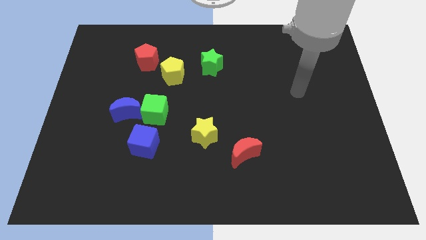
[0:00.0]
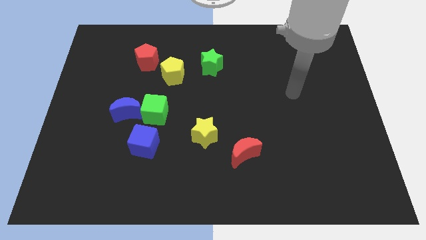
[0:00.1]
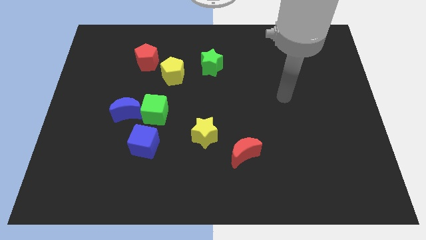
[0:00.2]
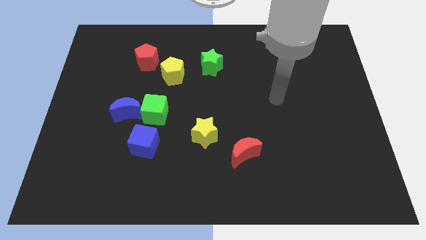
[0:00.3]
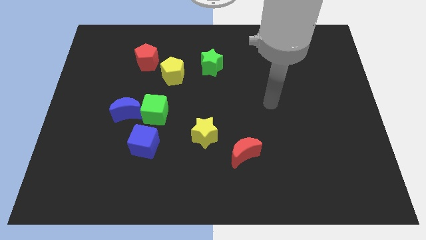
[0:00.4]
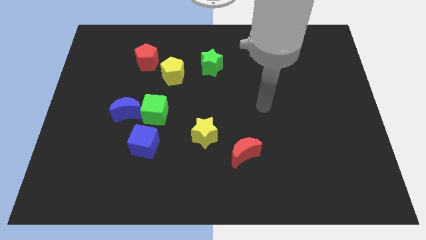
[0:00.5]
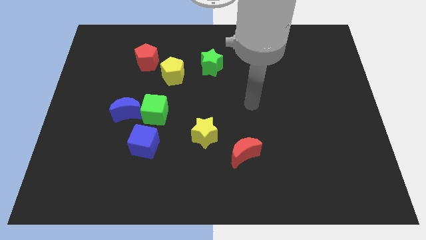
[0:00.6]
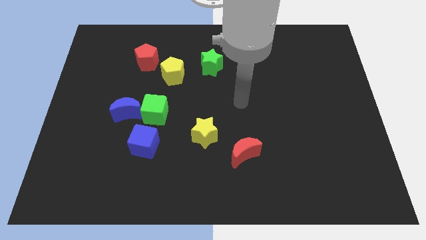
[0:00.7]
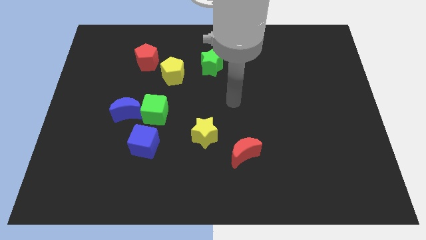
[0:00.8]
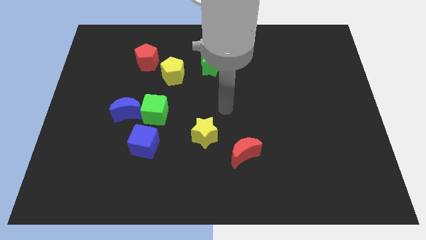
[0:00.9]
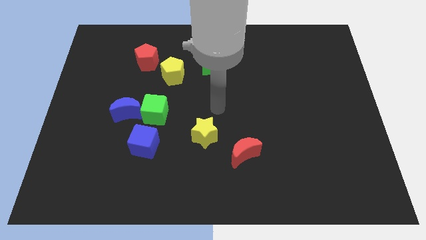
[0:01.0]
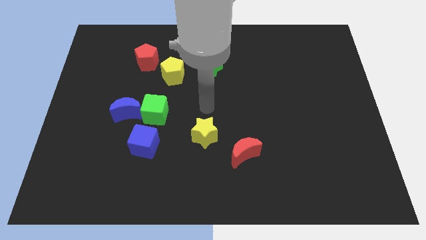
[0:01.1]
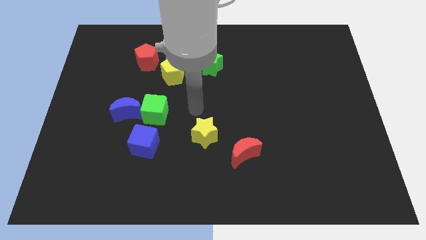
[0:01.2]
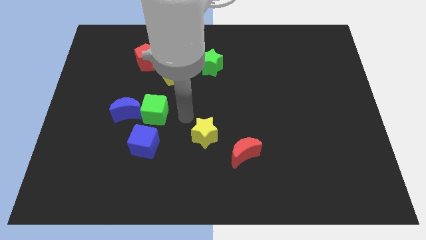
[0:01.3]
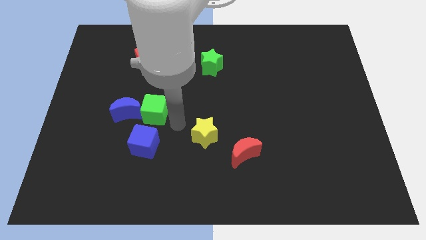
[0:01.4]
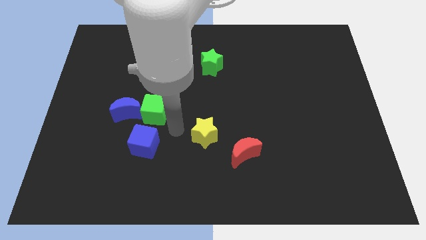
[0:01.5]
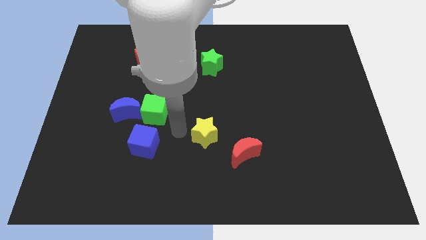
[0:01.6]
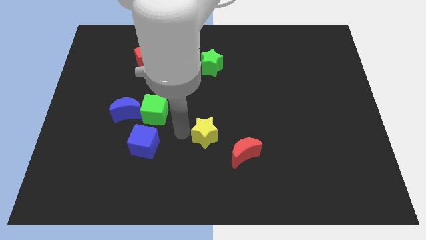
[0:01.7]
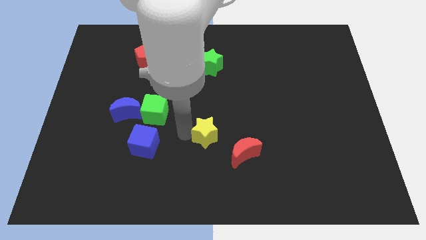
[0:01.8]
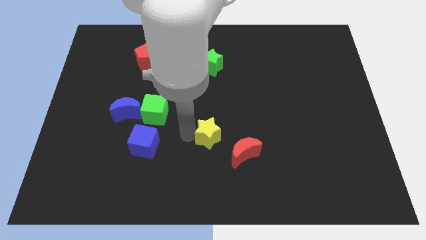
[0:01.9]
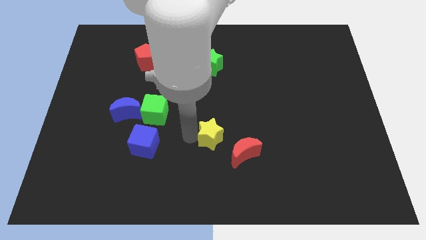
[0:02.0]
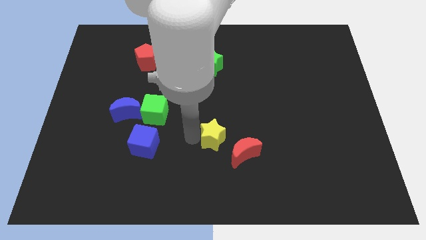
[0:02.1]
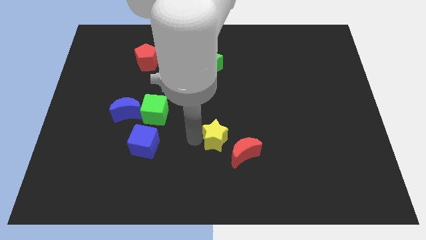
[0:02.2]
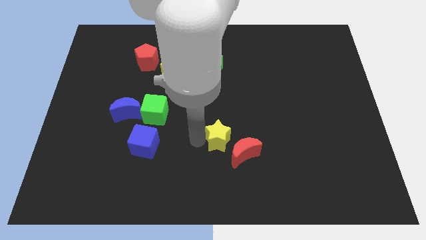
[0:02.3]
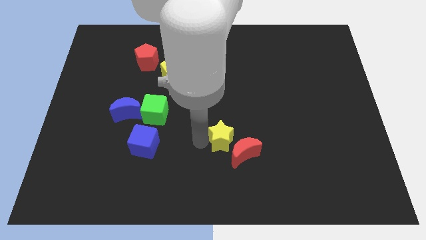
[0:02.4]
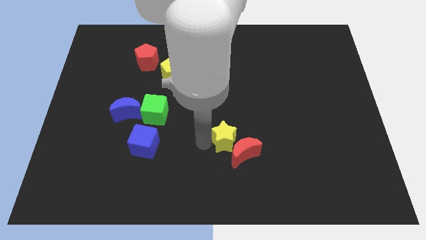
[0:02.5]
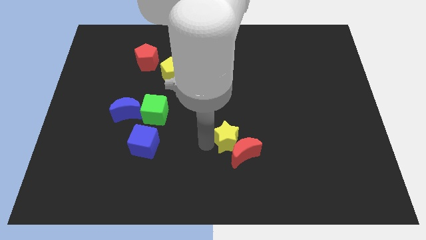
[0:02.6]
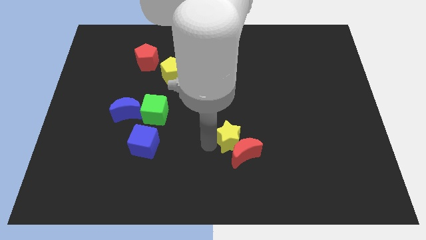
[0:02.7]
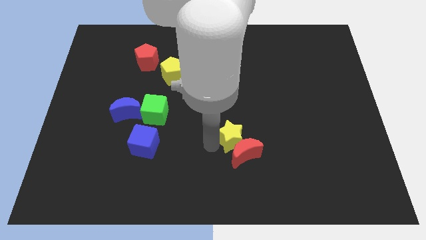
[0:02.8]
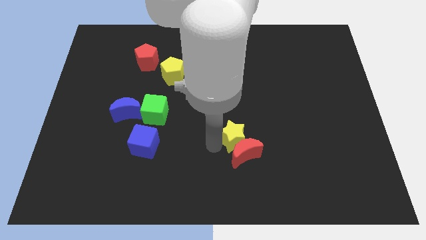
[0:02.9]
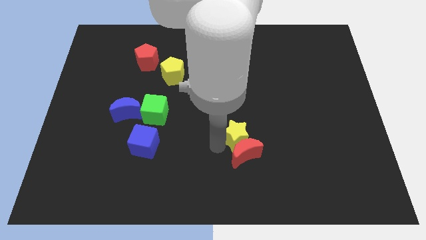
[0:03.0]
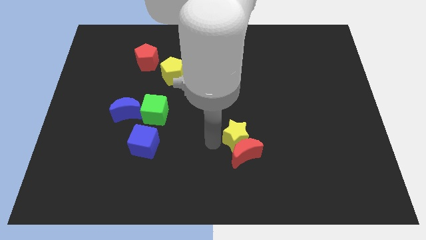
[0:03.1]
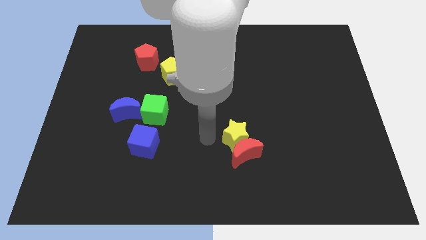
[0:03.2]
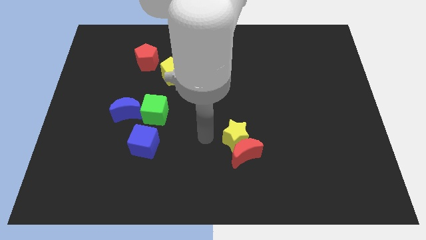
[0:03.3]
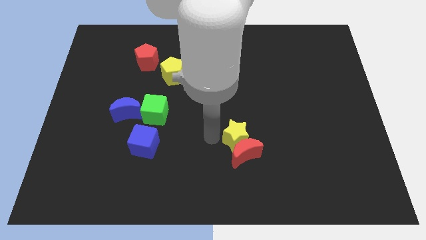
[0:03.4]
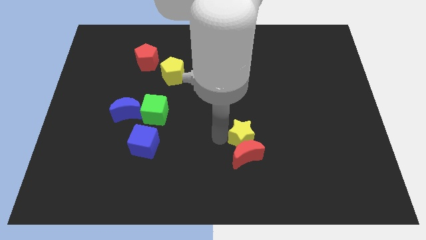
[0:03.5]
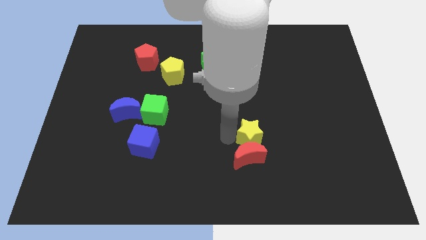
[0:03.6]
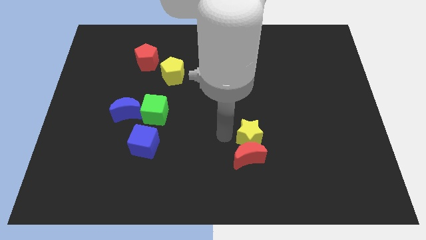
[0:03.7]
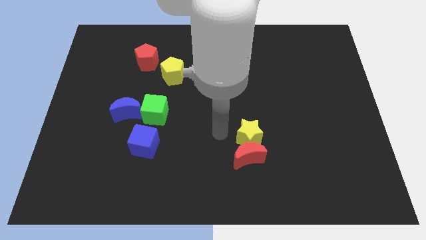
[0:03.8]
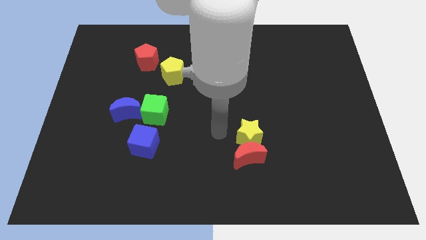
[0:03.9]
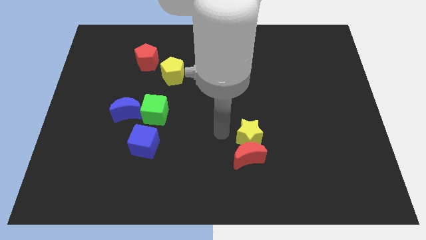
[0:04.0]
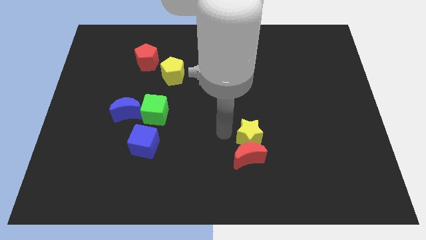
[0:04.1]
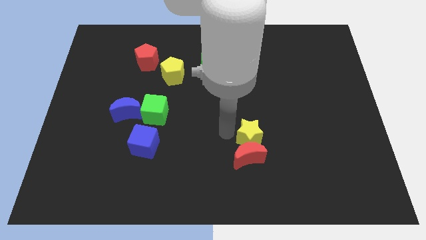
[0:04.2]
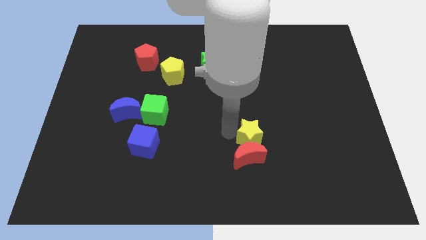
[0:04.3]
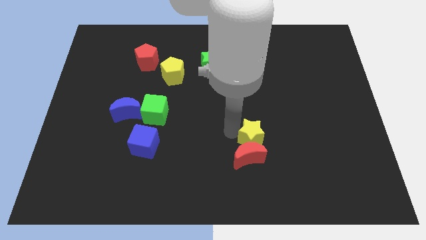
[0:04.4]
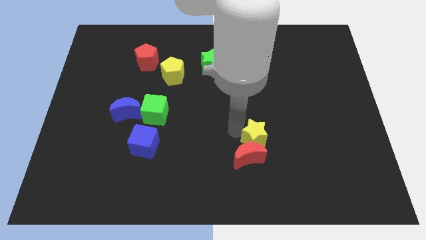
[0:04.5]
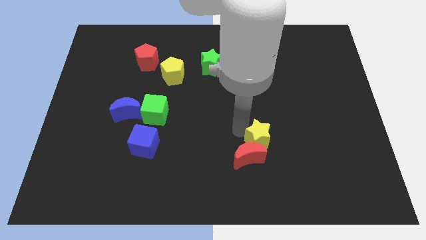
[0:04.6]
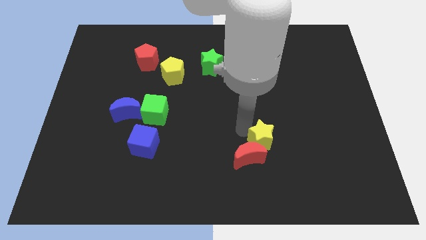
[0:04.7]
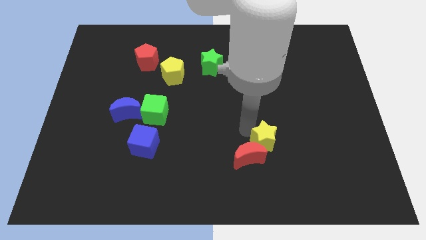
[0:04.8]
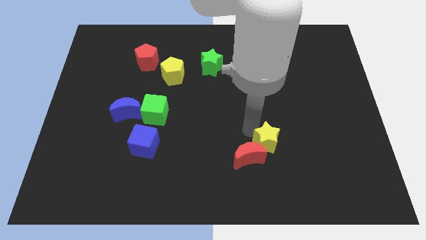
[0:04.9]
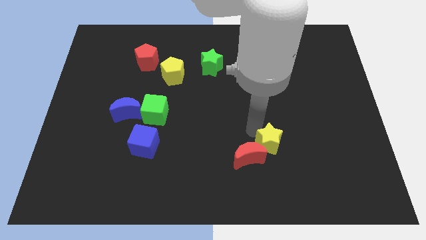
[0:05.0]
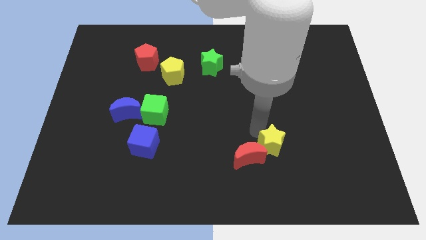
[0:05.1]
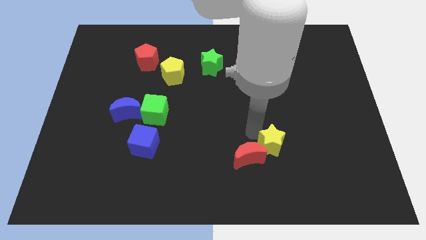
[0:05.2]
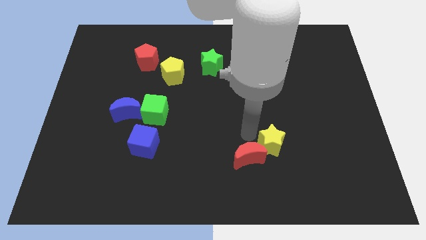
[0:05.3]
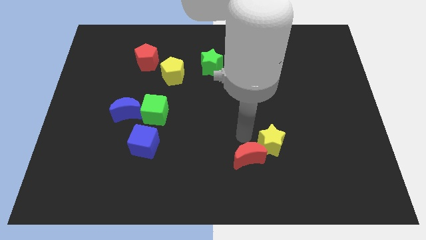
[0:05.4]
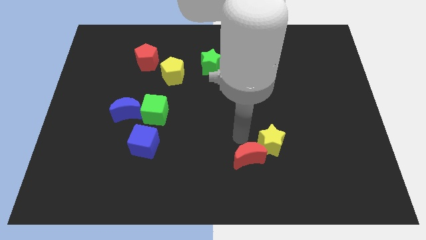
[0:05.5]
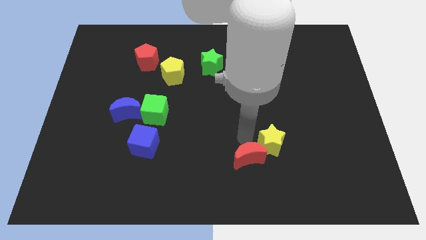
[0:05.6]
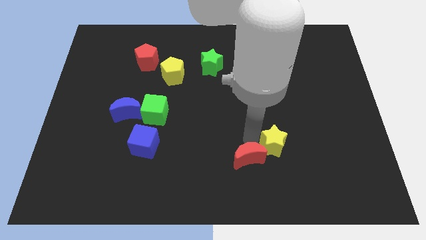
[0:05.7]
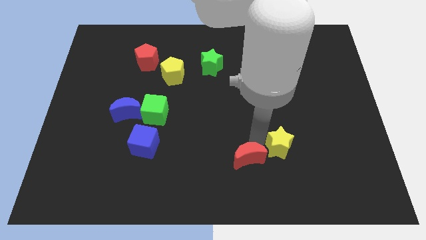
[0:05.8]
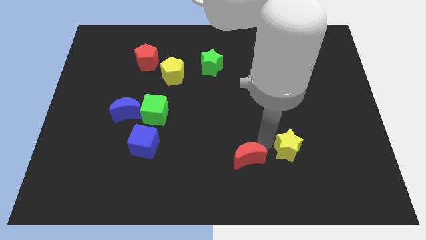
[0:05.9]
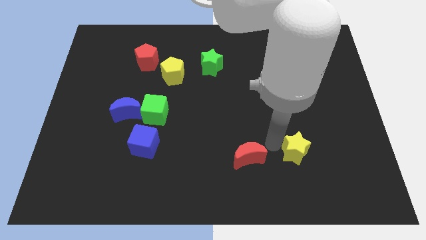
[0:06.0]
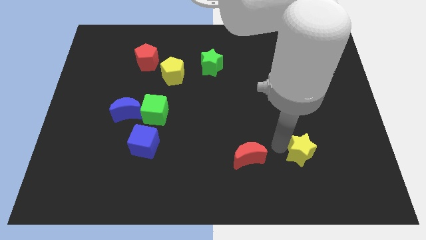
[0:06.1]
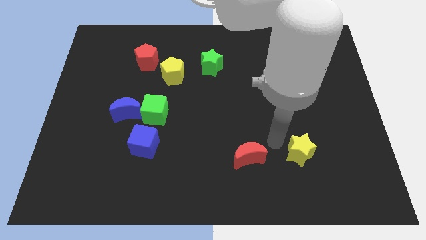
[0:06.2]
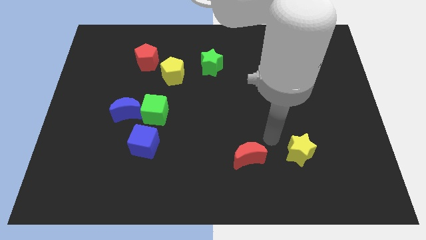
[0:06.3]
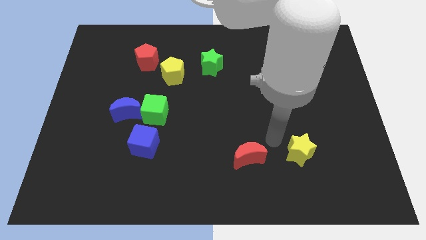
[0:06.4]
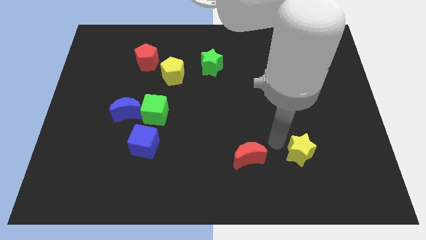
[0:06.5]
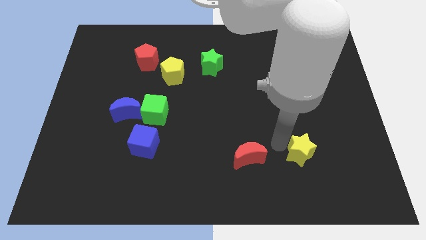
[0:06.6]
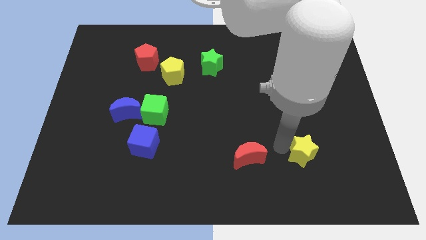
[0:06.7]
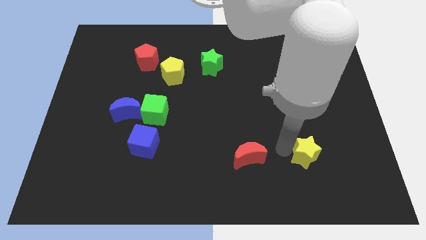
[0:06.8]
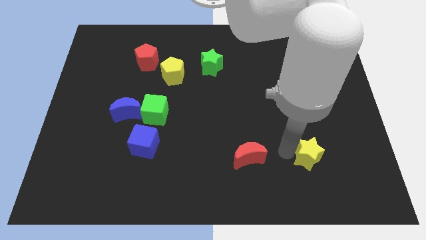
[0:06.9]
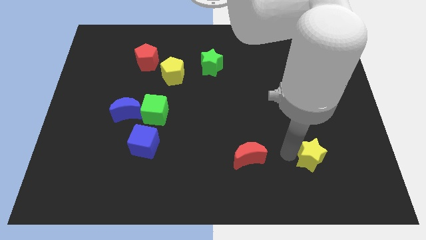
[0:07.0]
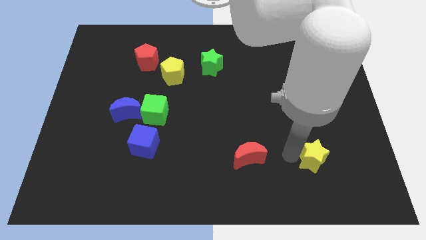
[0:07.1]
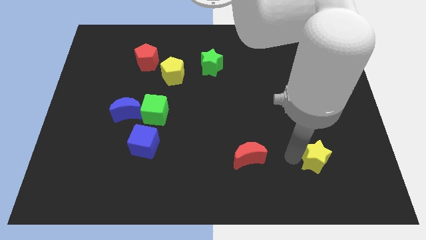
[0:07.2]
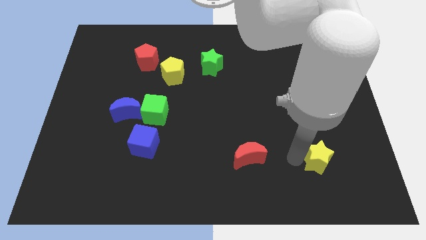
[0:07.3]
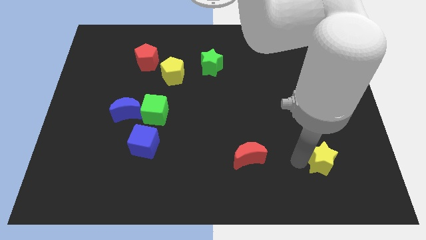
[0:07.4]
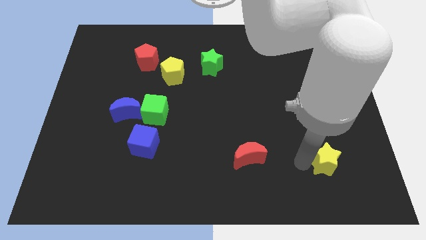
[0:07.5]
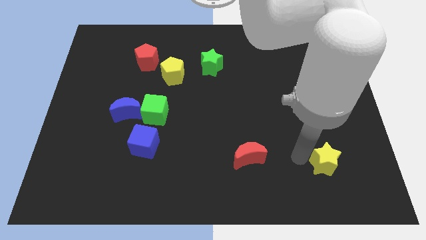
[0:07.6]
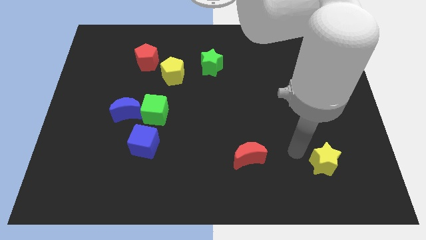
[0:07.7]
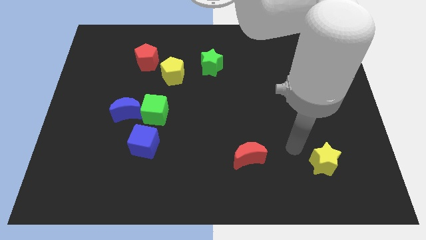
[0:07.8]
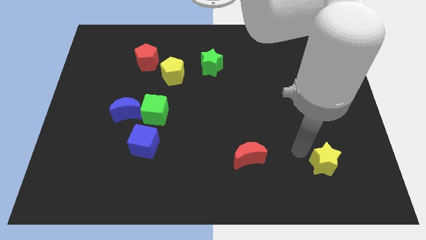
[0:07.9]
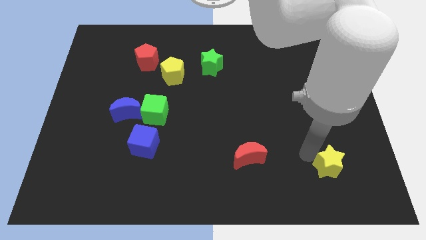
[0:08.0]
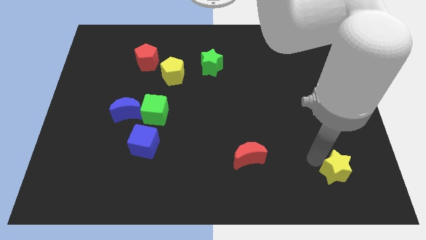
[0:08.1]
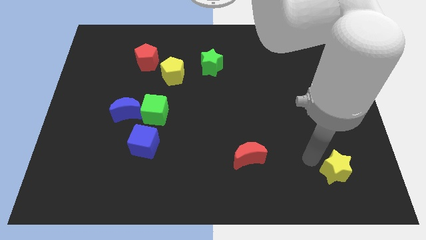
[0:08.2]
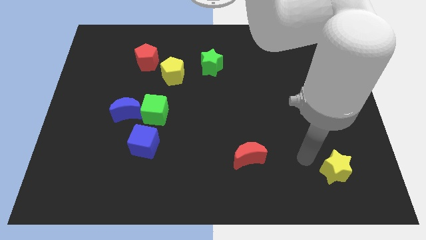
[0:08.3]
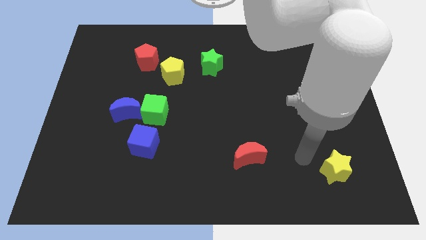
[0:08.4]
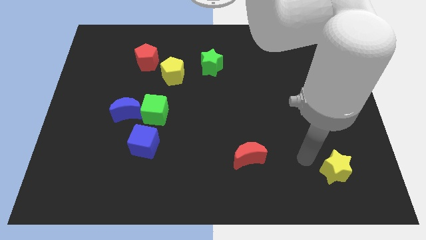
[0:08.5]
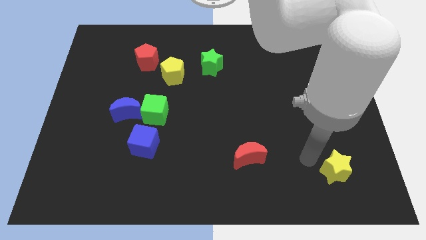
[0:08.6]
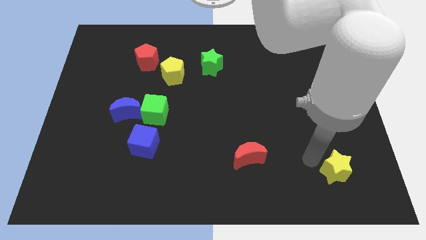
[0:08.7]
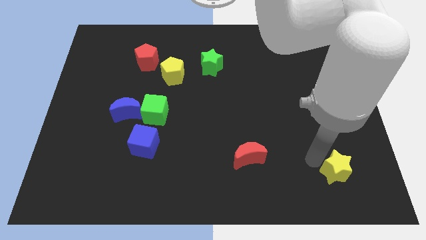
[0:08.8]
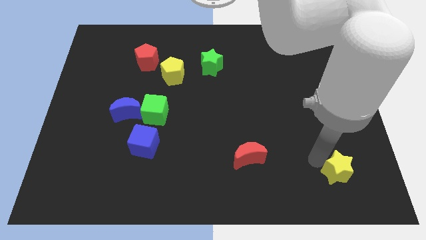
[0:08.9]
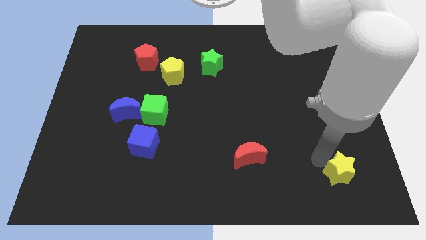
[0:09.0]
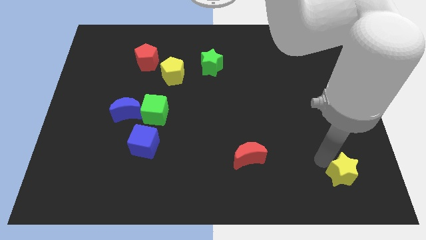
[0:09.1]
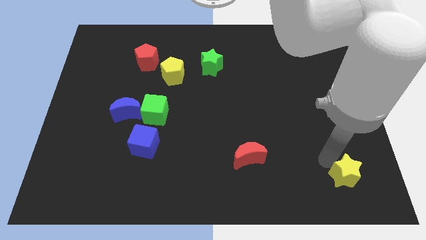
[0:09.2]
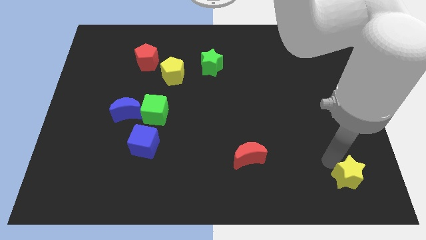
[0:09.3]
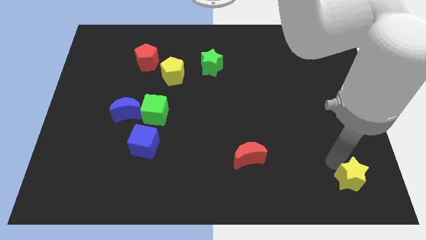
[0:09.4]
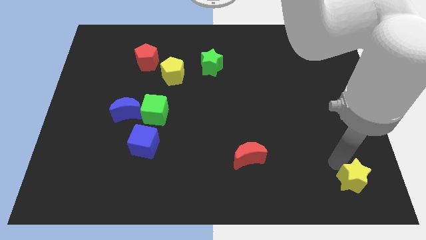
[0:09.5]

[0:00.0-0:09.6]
slide the yellow star to the lower right corner
